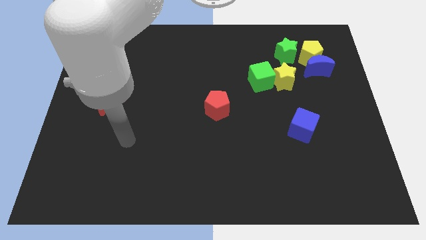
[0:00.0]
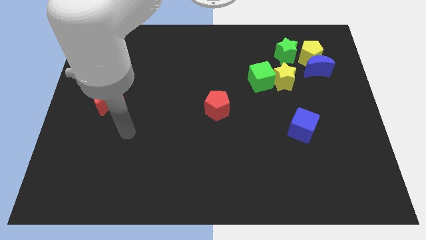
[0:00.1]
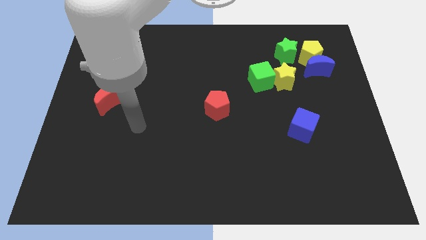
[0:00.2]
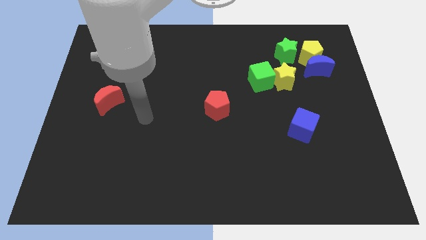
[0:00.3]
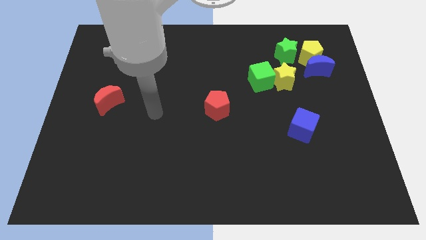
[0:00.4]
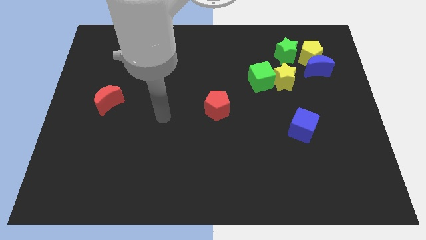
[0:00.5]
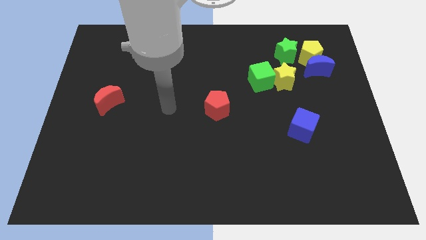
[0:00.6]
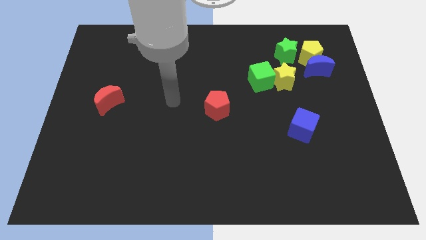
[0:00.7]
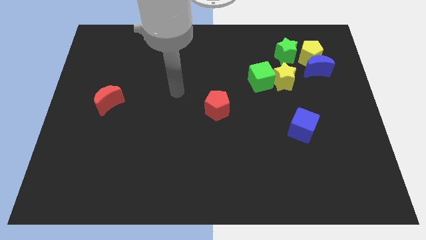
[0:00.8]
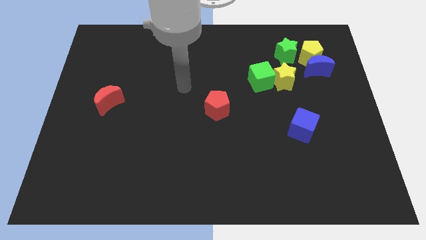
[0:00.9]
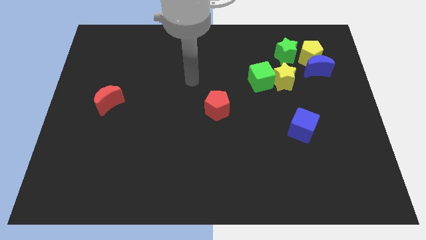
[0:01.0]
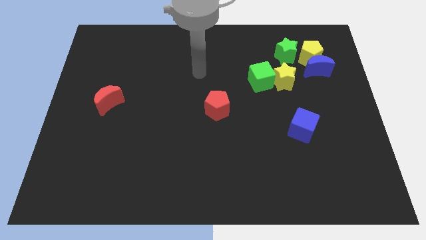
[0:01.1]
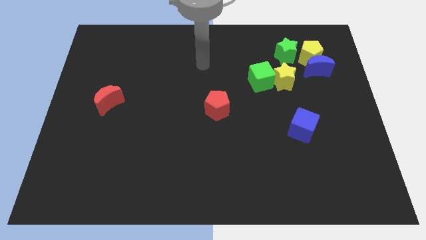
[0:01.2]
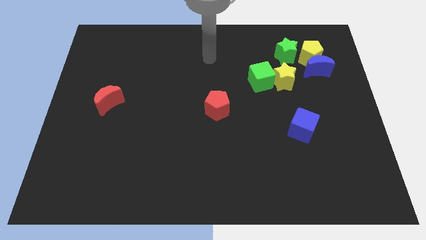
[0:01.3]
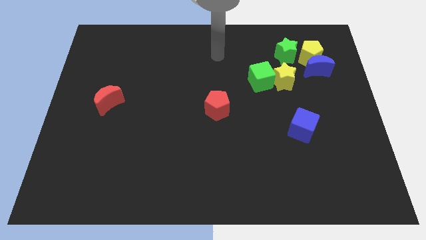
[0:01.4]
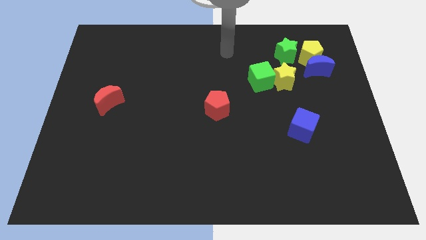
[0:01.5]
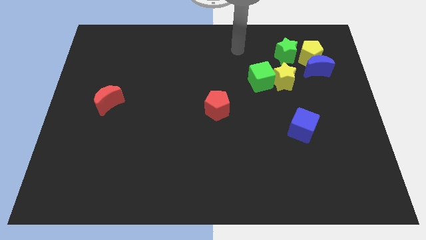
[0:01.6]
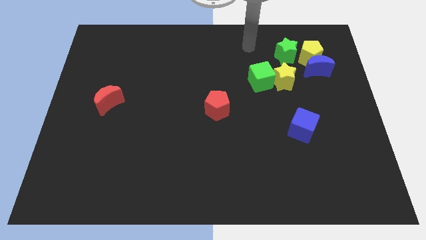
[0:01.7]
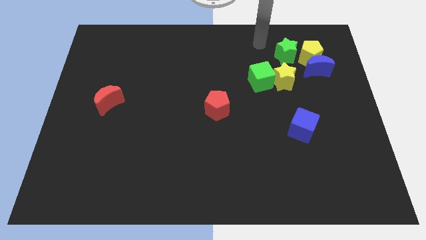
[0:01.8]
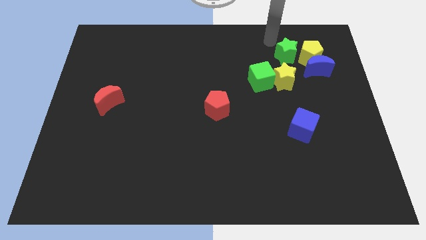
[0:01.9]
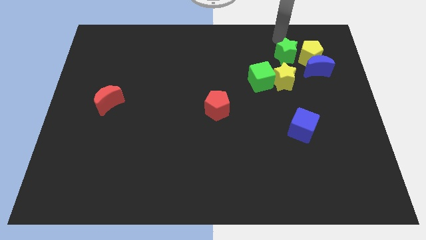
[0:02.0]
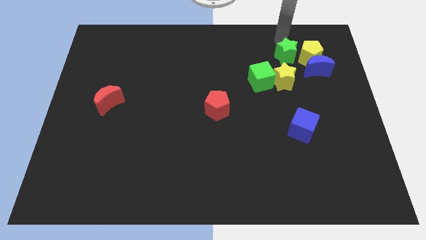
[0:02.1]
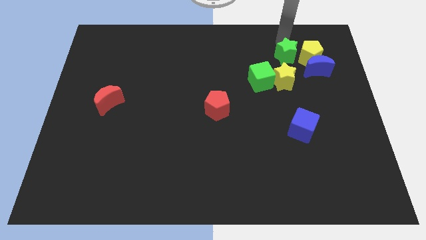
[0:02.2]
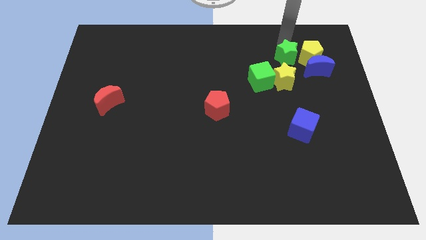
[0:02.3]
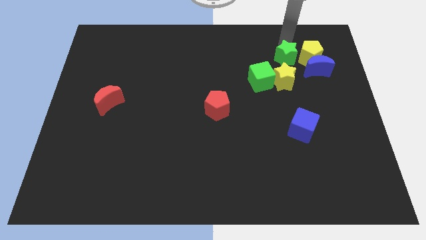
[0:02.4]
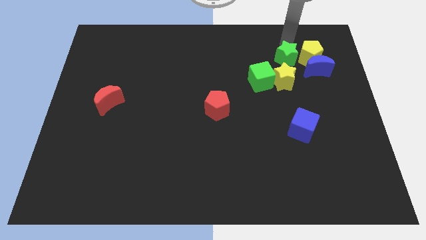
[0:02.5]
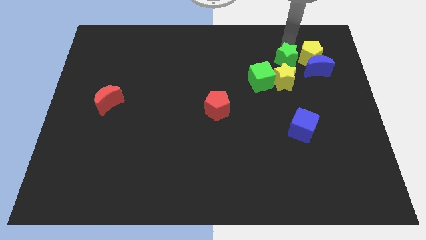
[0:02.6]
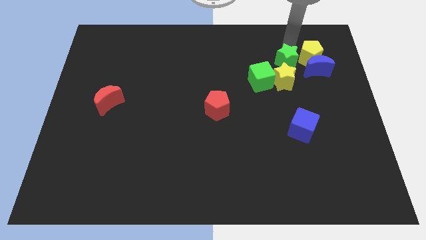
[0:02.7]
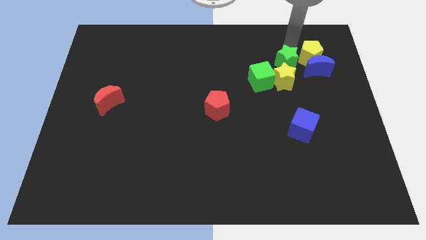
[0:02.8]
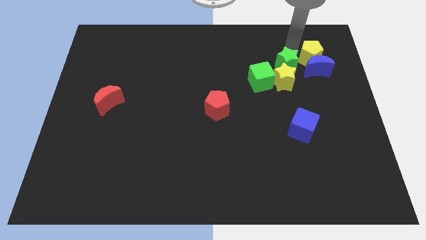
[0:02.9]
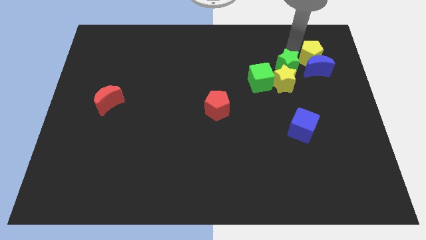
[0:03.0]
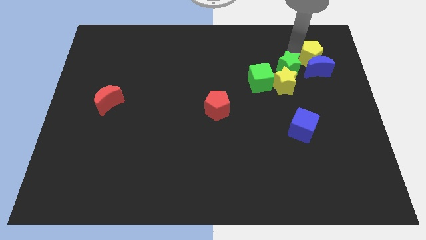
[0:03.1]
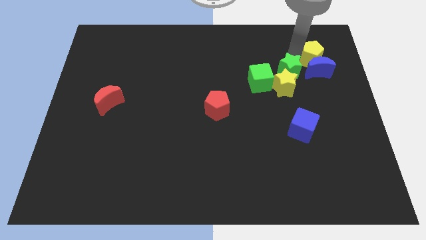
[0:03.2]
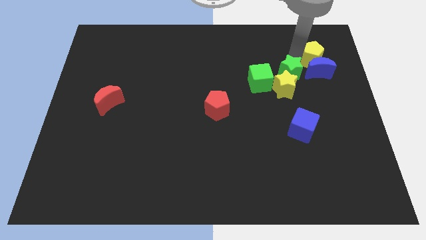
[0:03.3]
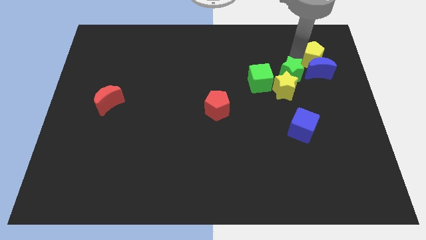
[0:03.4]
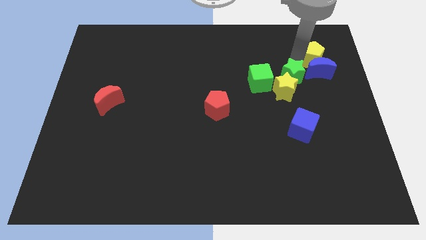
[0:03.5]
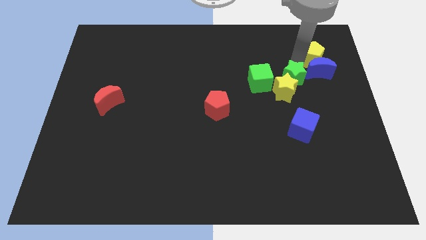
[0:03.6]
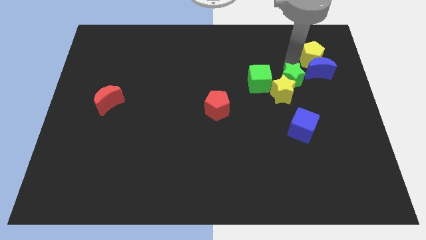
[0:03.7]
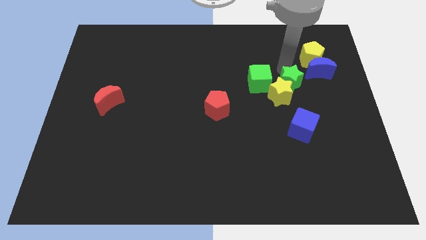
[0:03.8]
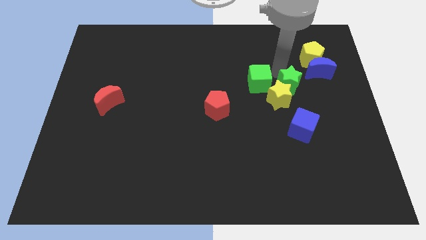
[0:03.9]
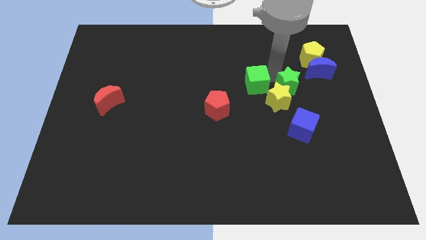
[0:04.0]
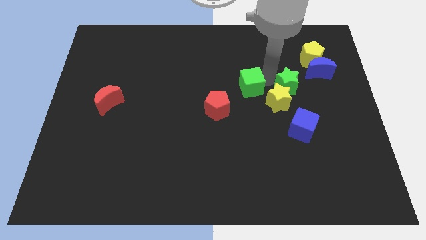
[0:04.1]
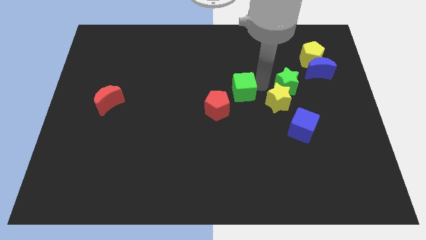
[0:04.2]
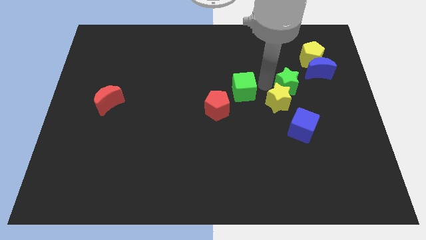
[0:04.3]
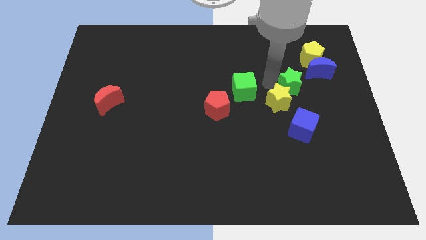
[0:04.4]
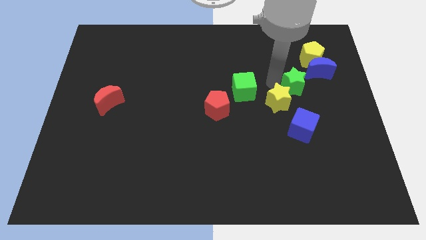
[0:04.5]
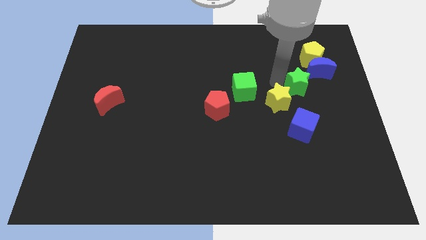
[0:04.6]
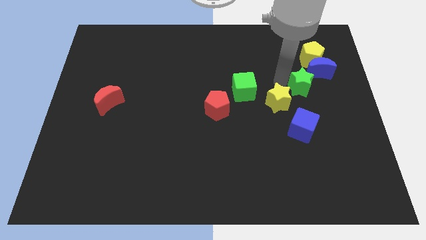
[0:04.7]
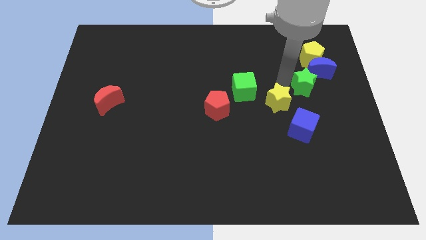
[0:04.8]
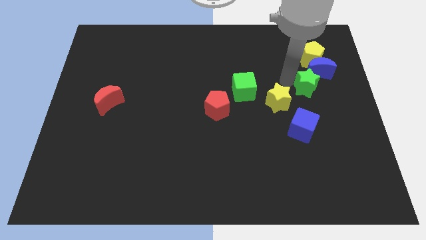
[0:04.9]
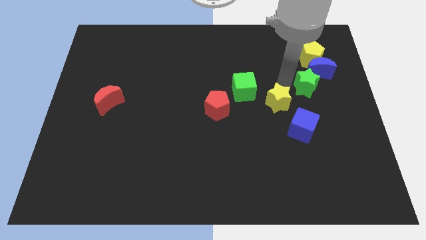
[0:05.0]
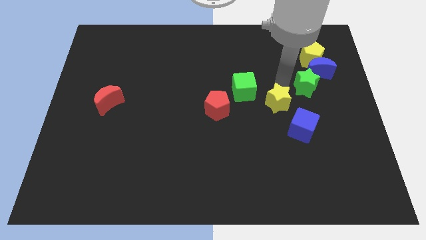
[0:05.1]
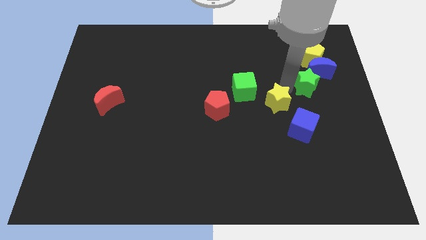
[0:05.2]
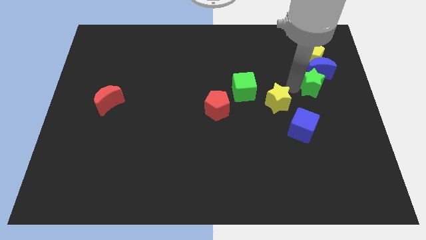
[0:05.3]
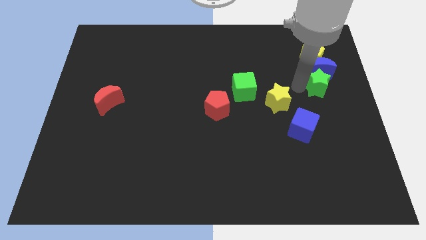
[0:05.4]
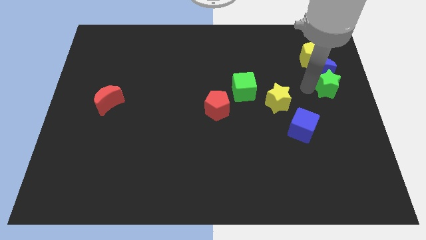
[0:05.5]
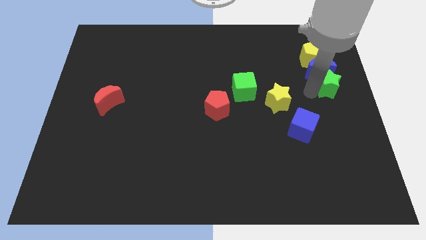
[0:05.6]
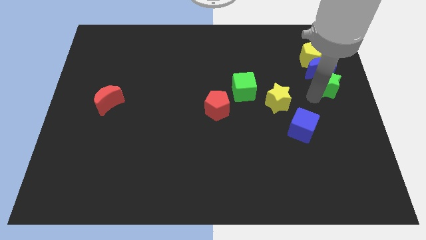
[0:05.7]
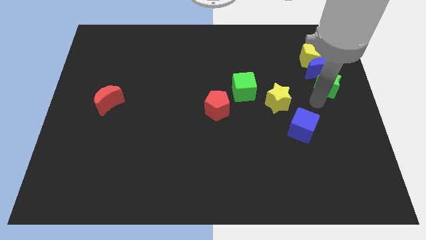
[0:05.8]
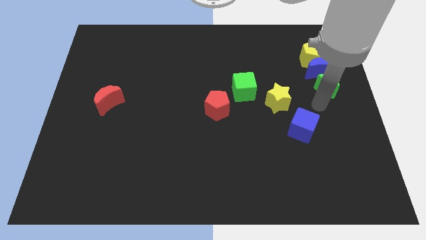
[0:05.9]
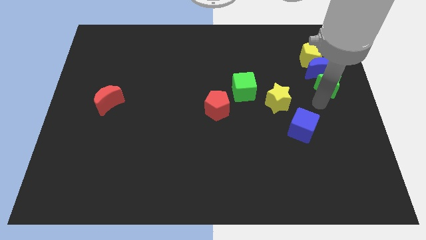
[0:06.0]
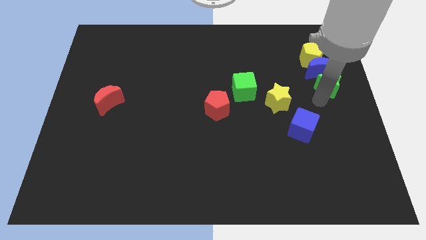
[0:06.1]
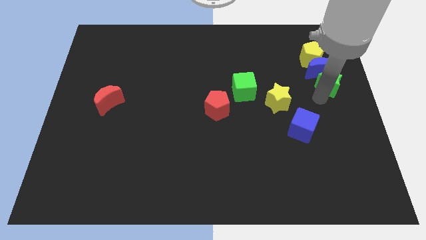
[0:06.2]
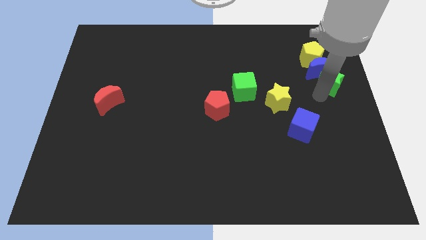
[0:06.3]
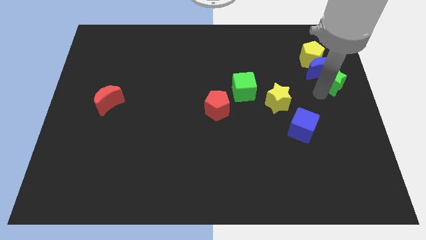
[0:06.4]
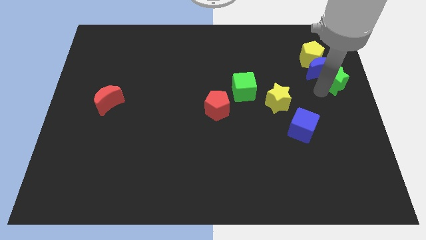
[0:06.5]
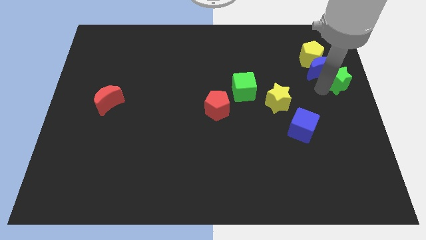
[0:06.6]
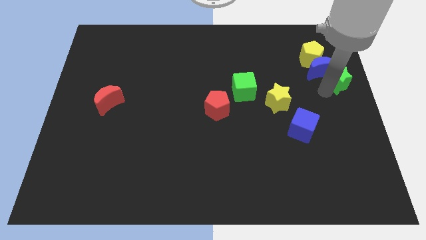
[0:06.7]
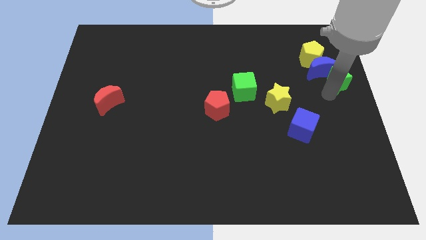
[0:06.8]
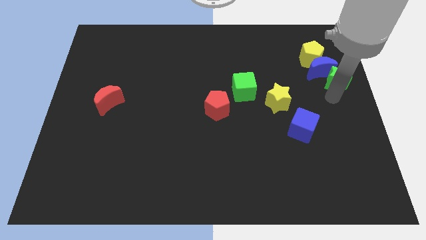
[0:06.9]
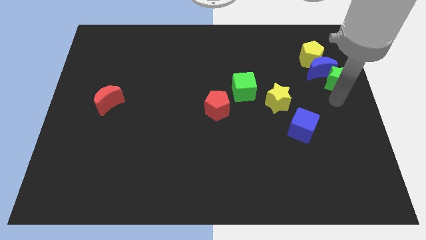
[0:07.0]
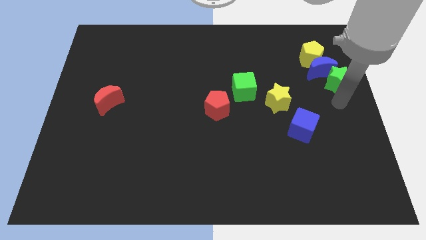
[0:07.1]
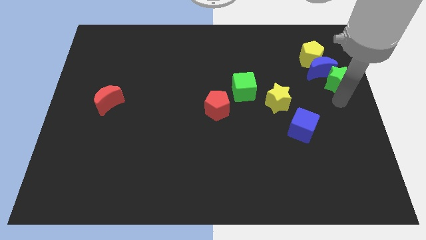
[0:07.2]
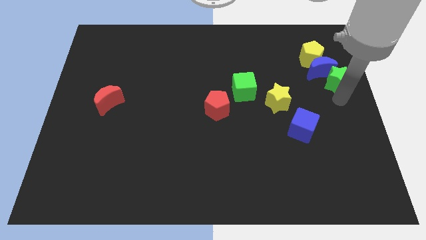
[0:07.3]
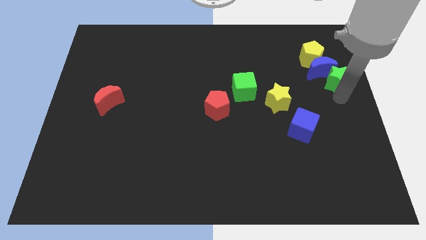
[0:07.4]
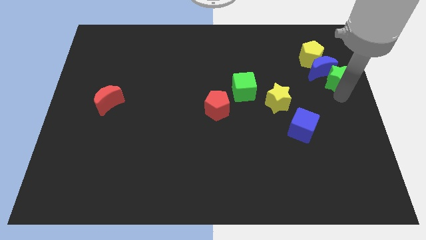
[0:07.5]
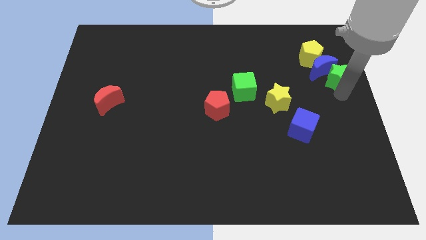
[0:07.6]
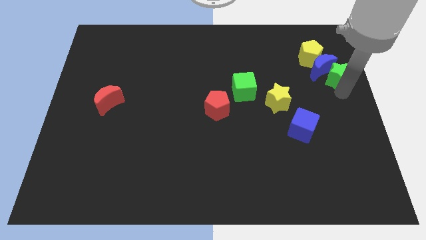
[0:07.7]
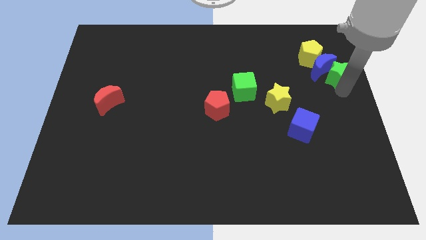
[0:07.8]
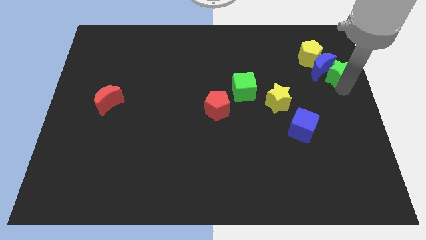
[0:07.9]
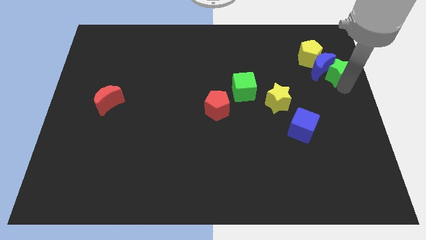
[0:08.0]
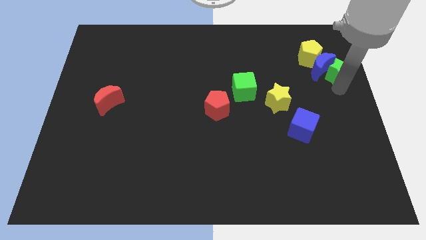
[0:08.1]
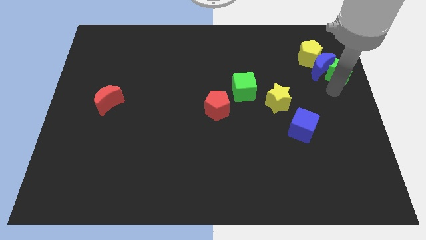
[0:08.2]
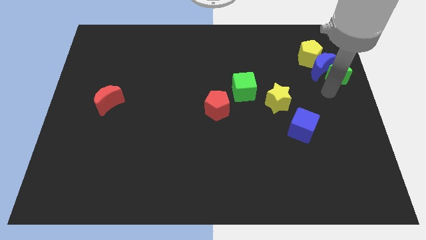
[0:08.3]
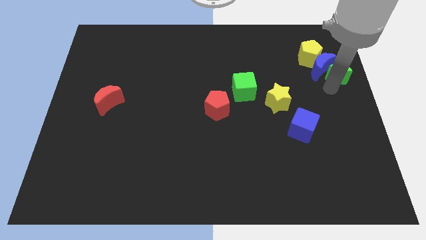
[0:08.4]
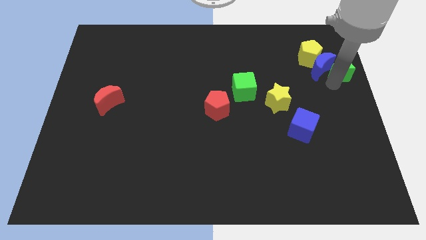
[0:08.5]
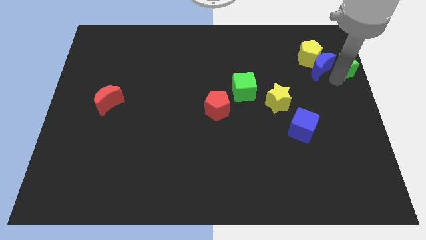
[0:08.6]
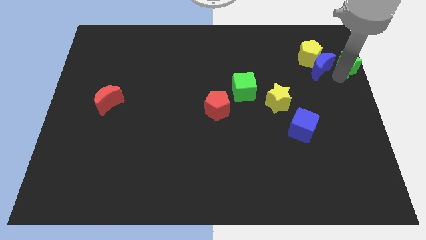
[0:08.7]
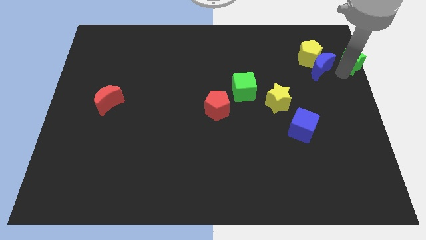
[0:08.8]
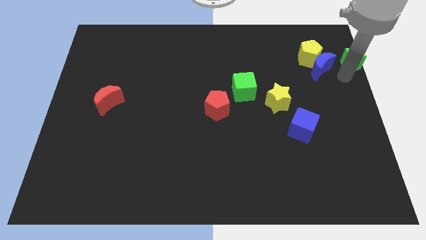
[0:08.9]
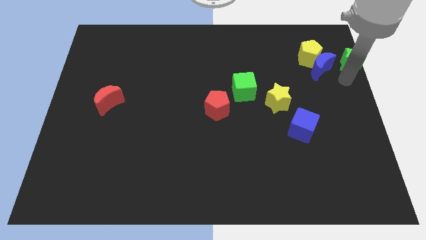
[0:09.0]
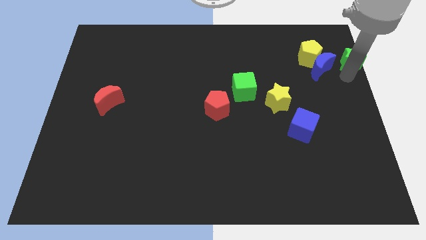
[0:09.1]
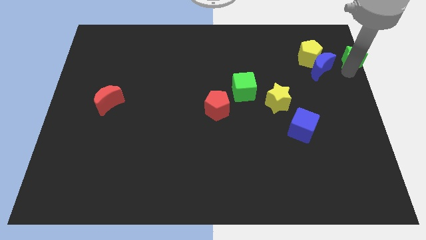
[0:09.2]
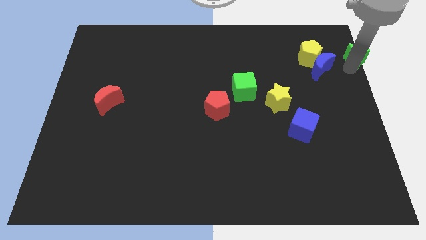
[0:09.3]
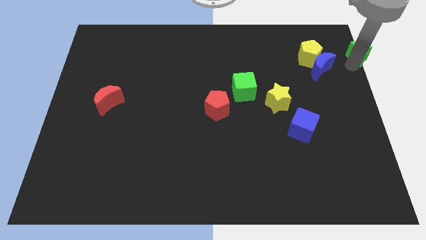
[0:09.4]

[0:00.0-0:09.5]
put the green star to the upper right corner
